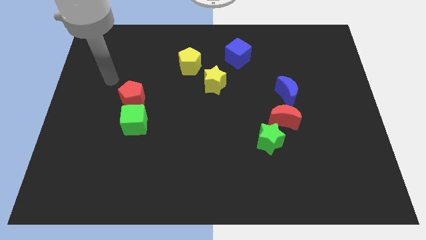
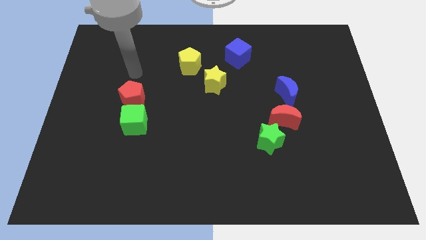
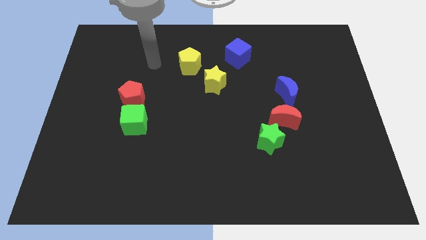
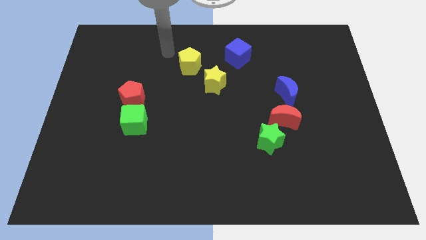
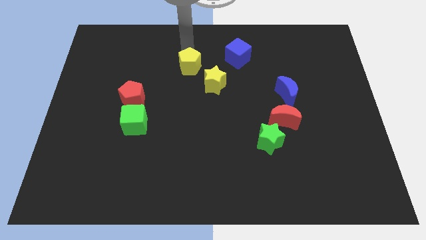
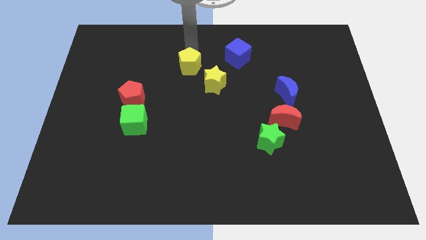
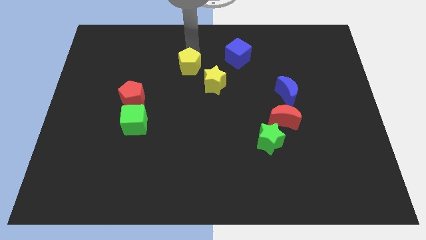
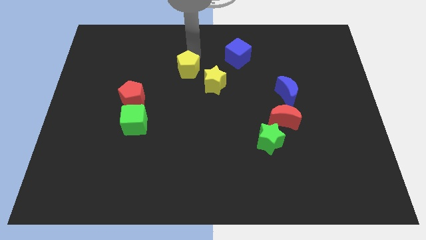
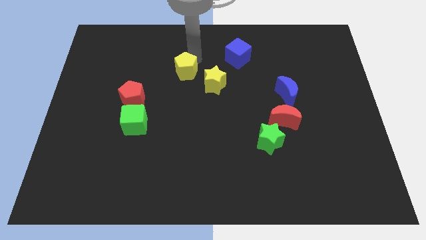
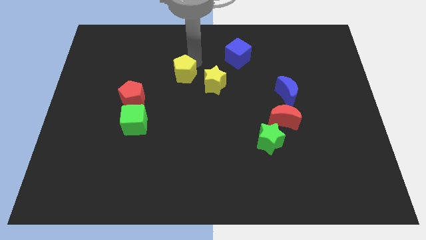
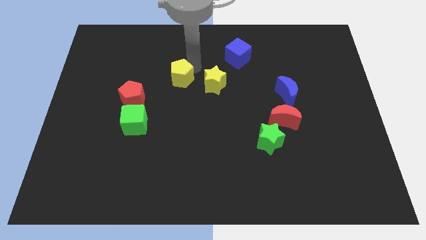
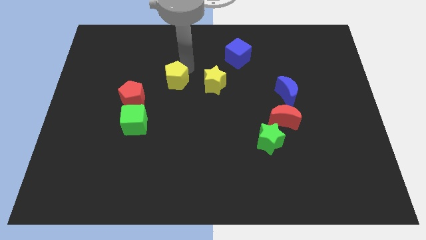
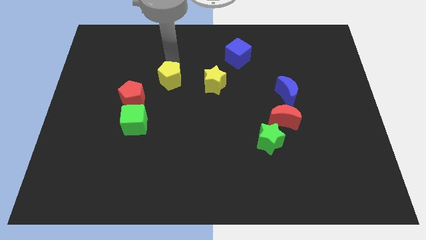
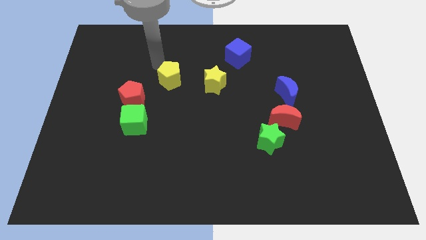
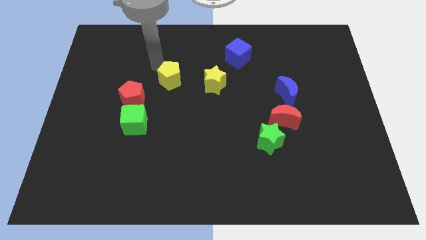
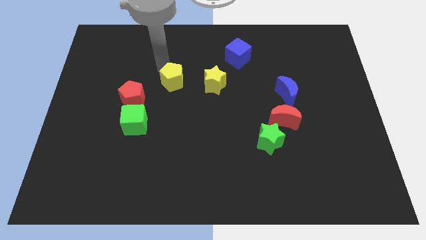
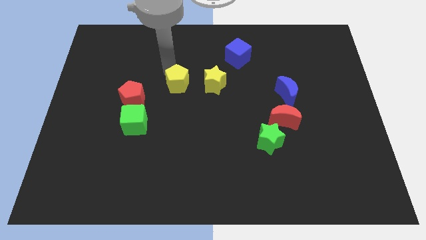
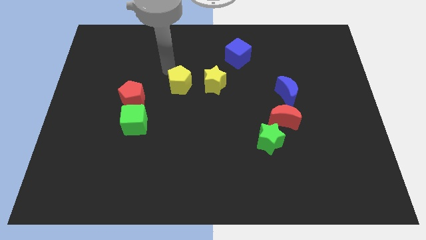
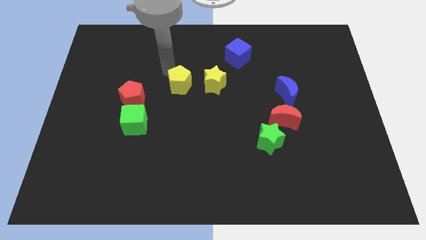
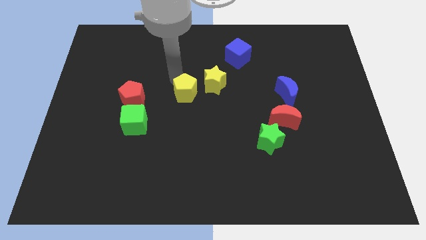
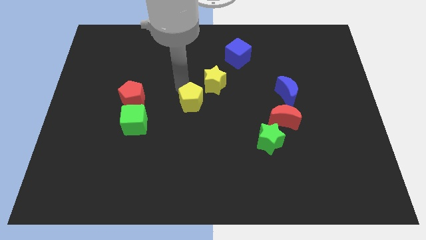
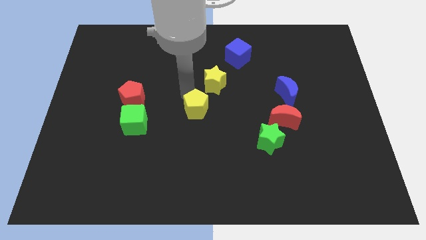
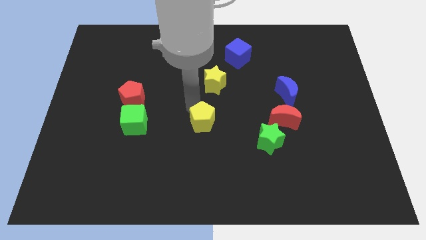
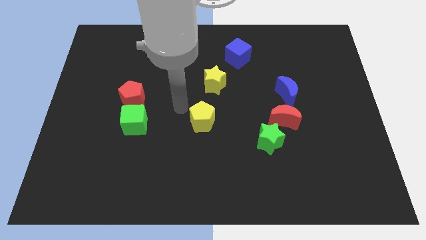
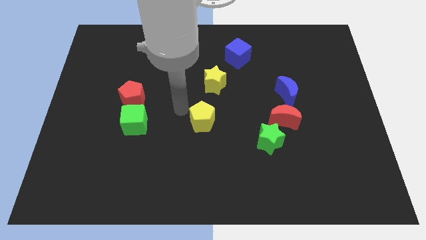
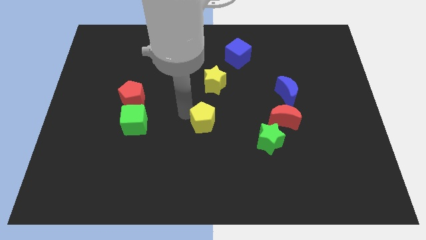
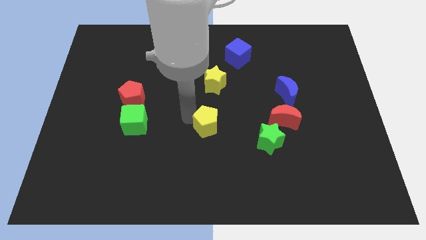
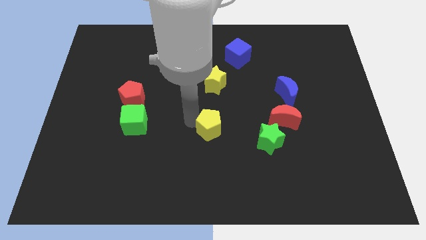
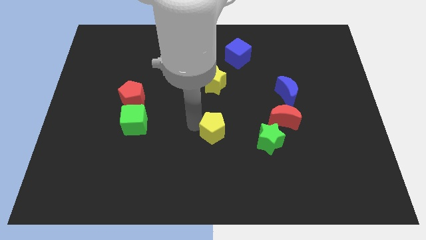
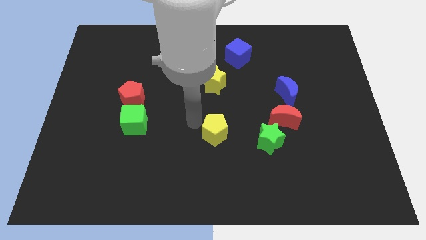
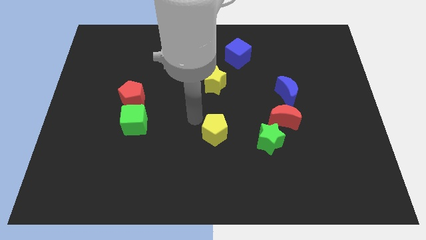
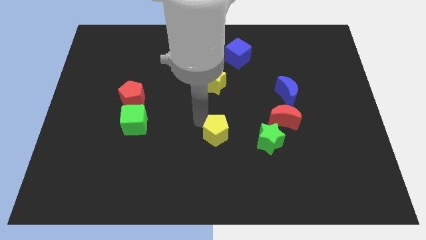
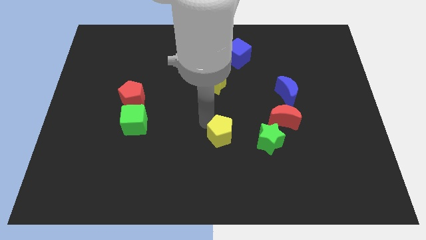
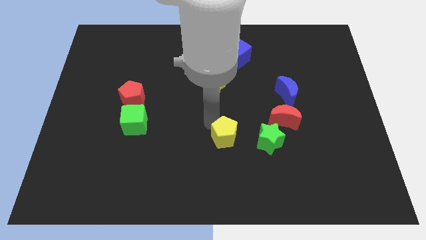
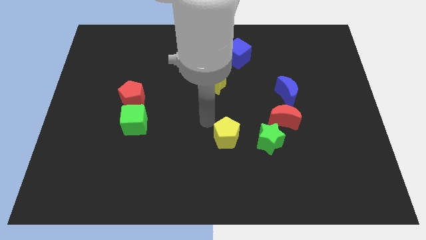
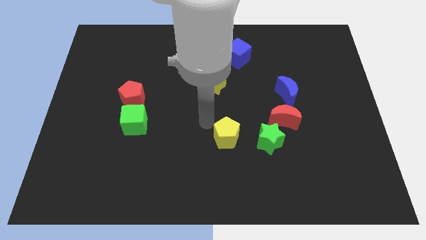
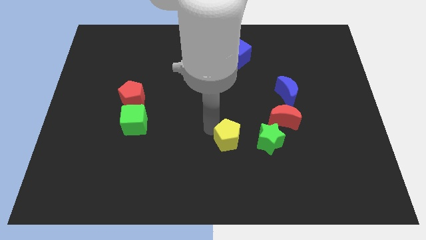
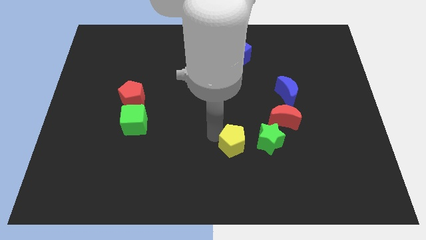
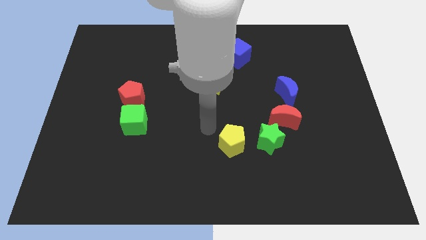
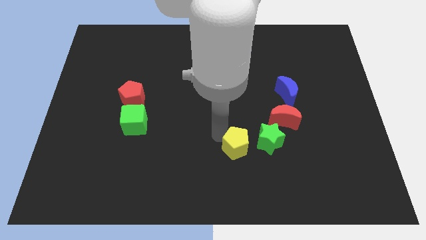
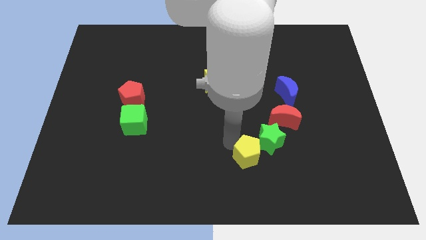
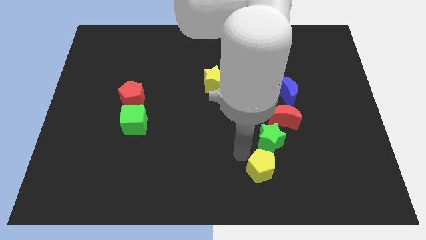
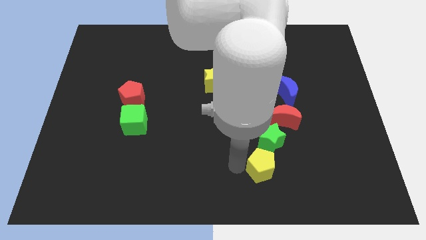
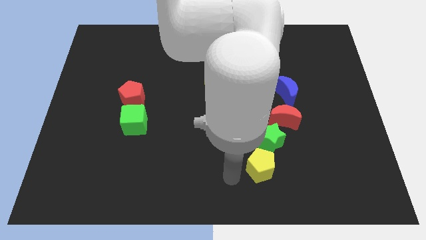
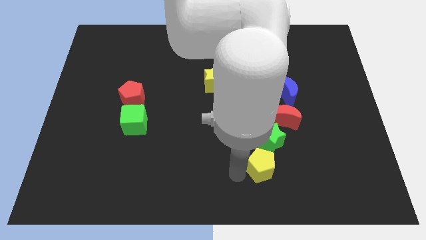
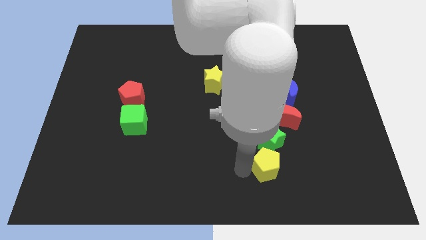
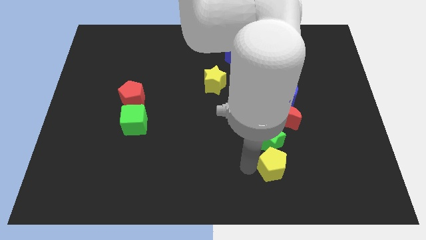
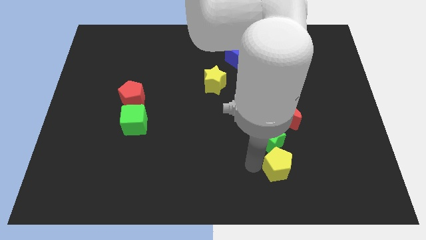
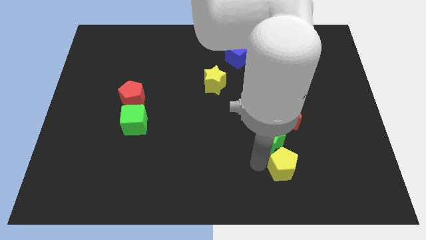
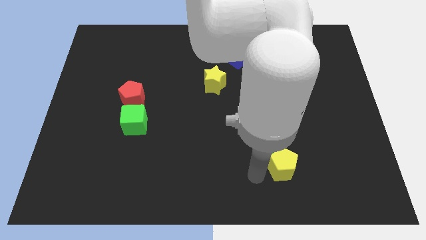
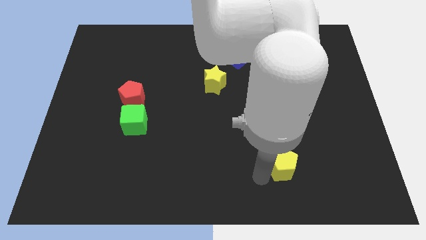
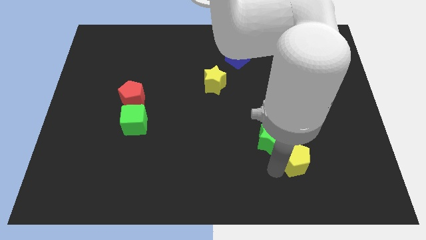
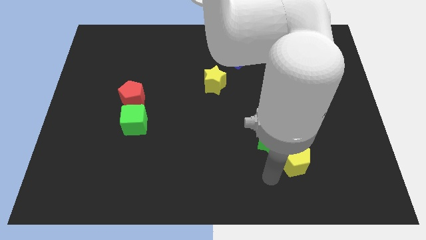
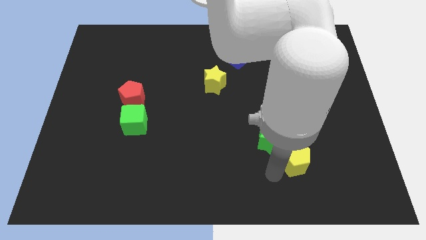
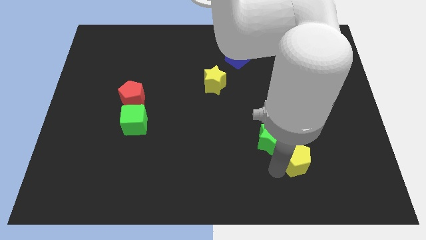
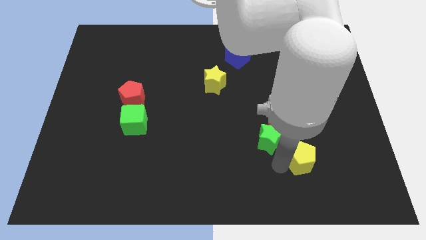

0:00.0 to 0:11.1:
put the yellow pentagon to the right of the green star

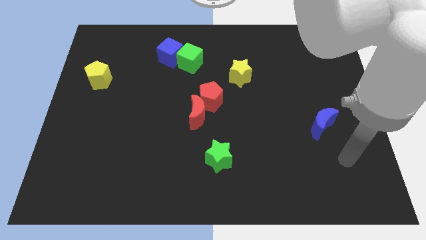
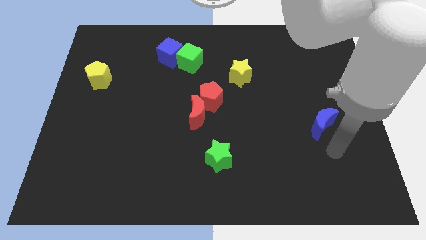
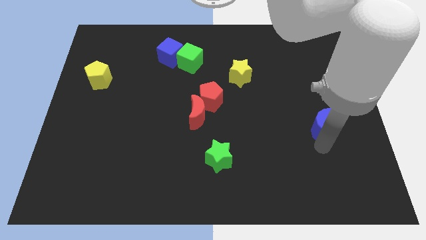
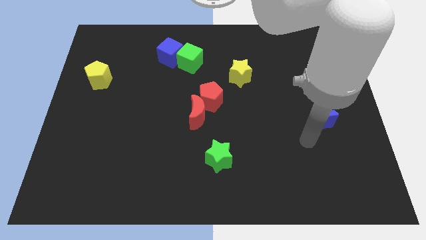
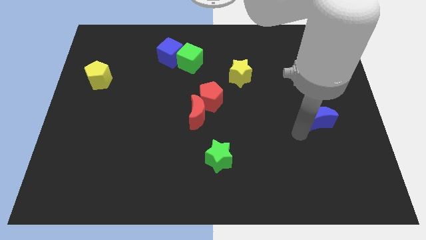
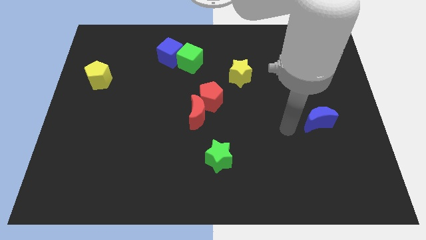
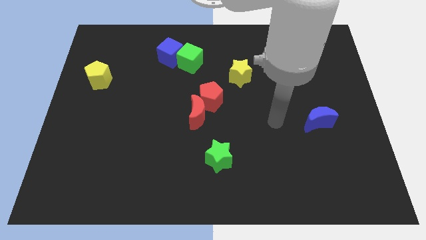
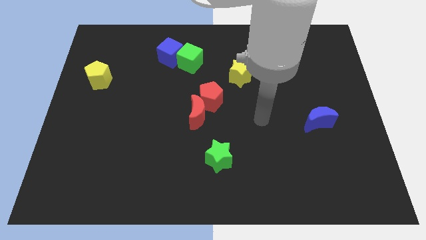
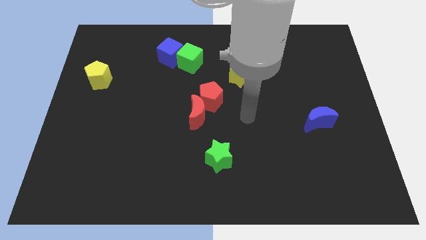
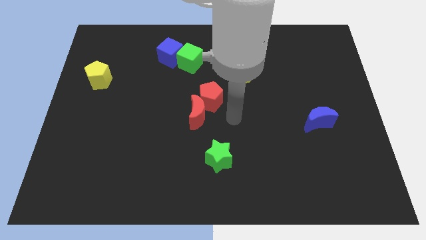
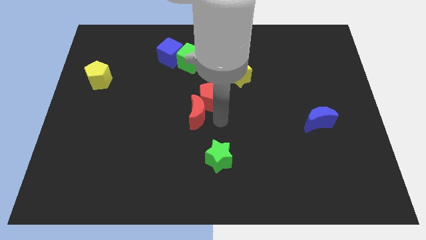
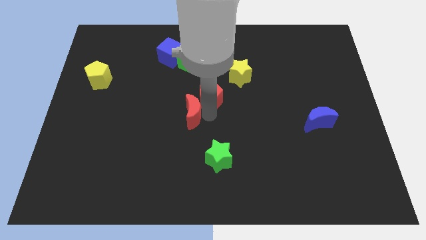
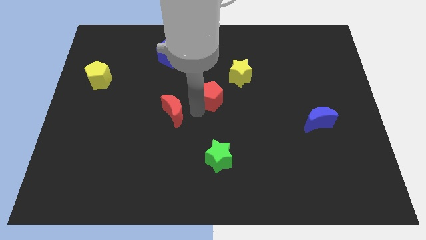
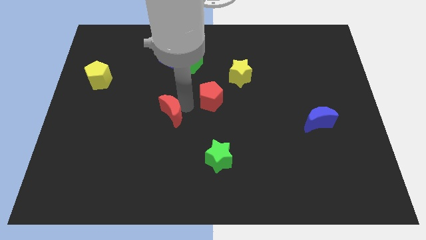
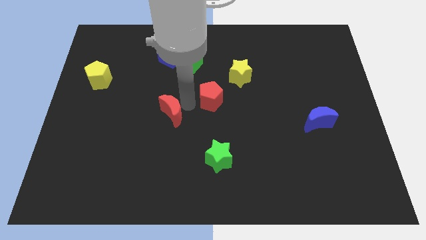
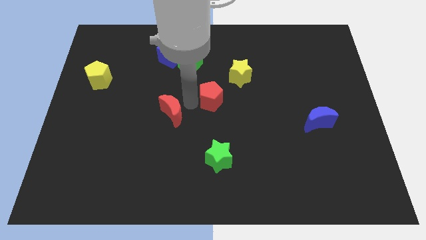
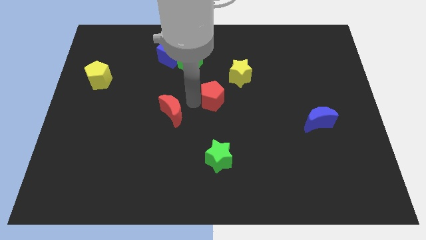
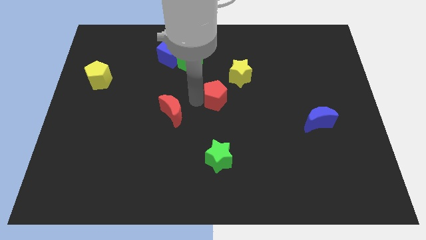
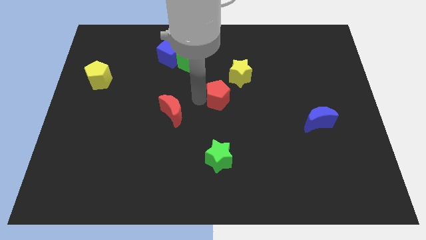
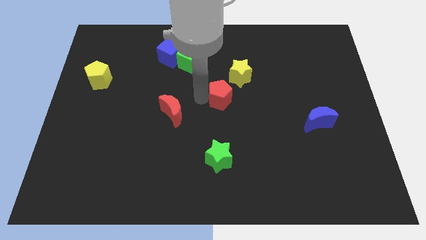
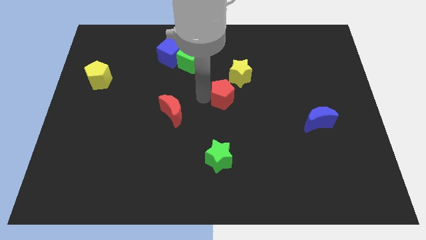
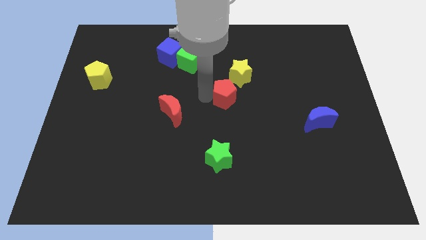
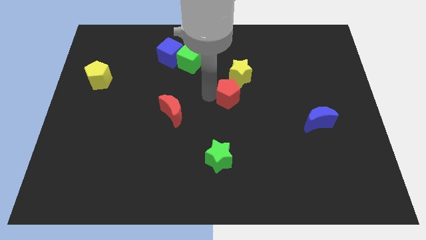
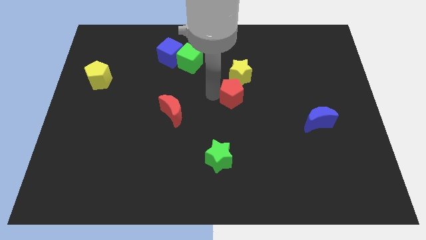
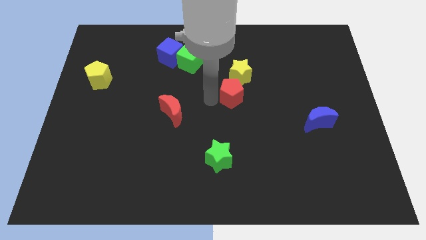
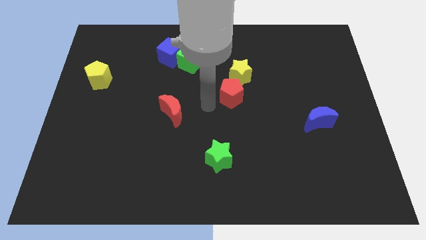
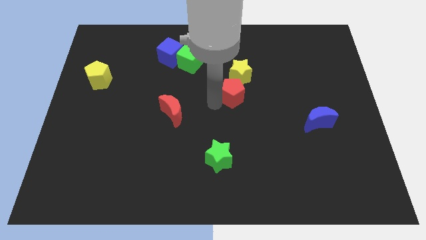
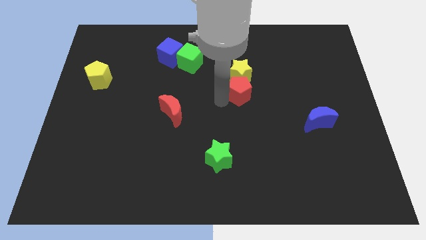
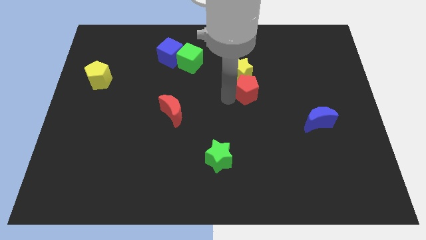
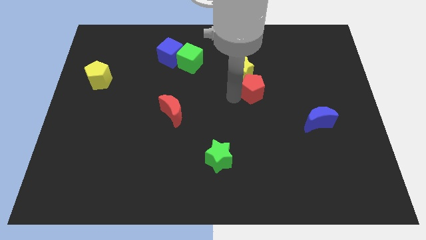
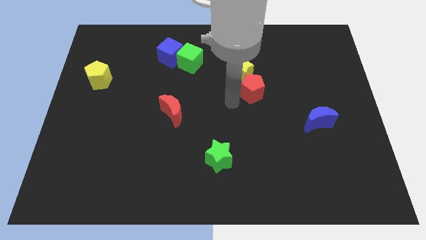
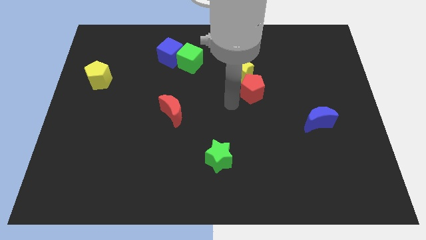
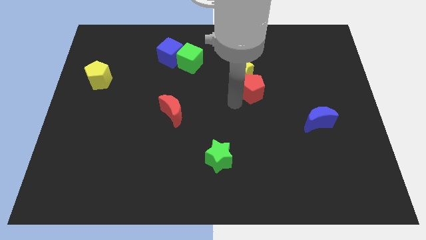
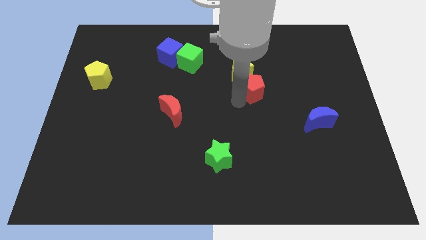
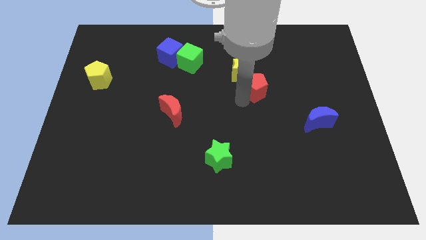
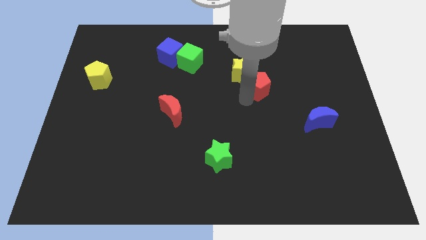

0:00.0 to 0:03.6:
move the red pentagon just right of the yellow star
